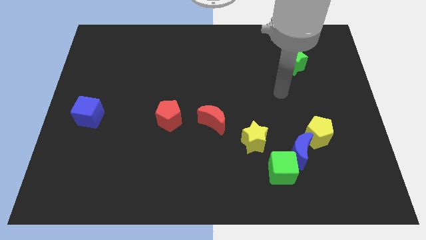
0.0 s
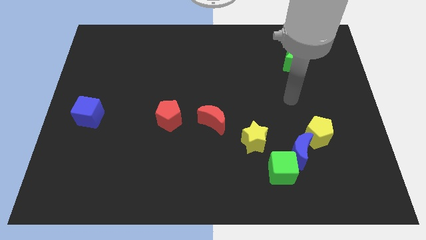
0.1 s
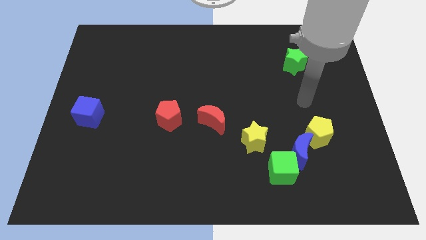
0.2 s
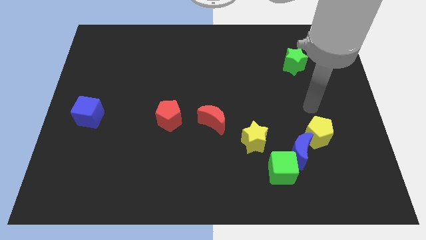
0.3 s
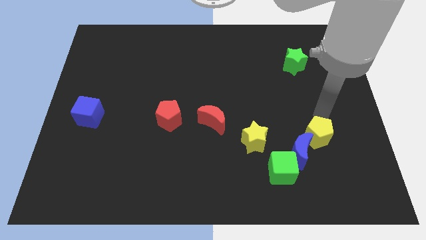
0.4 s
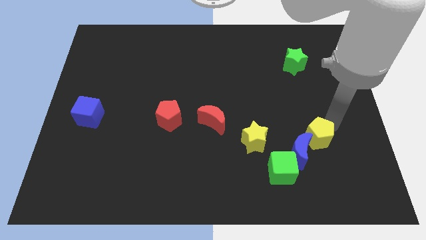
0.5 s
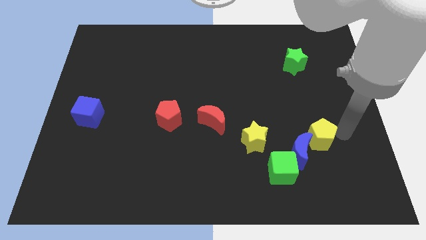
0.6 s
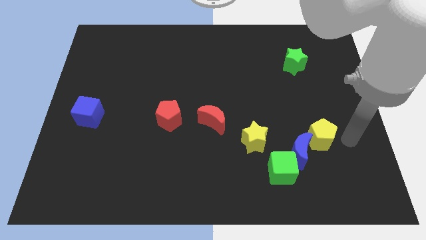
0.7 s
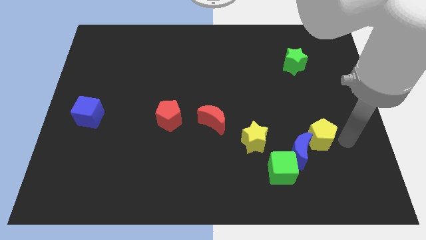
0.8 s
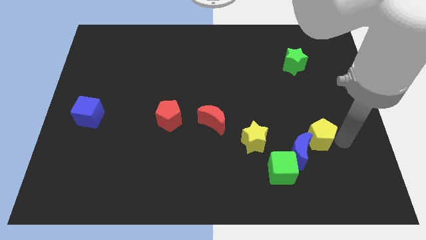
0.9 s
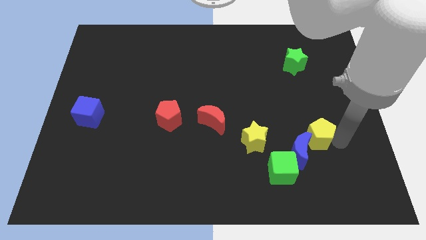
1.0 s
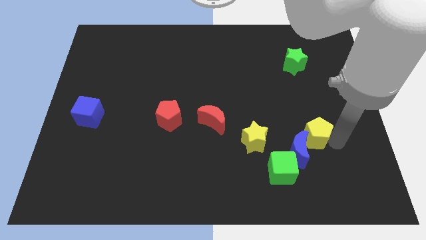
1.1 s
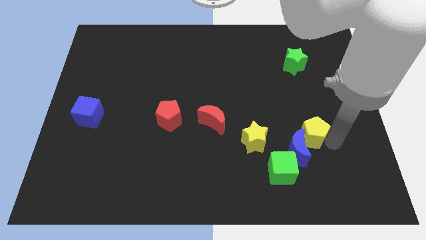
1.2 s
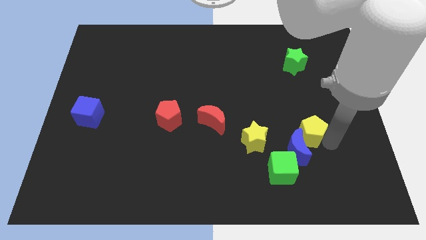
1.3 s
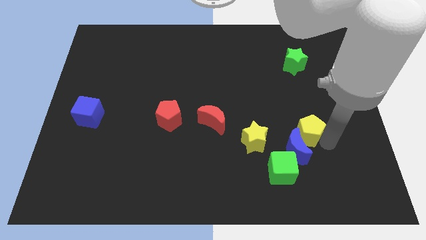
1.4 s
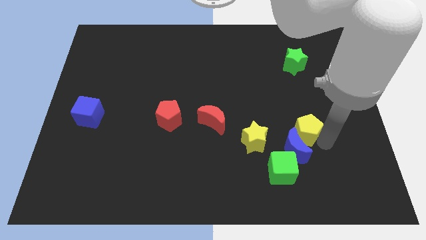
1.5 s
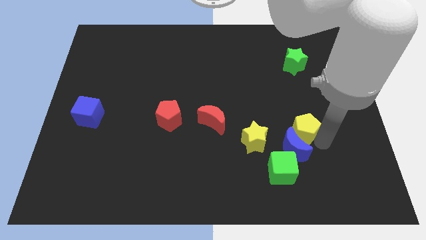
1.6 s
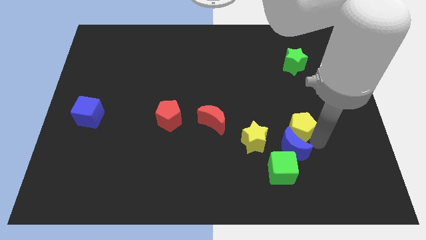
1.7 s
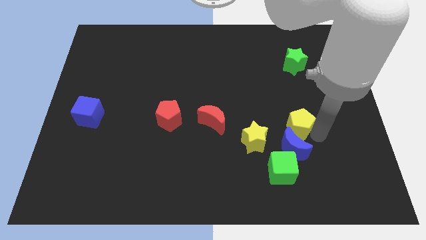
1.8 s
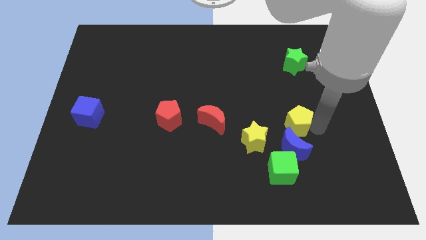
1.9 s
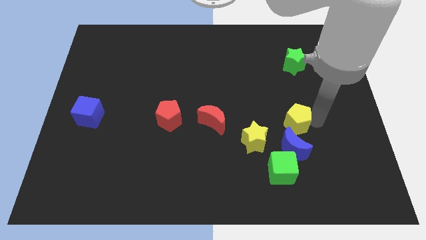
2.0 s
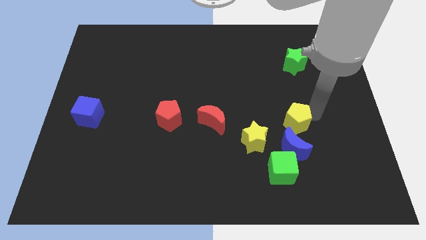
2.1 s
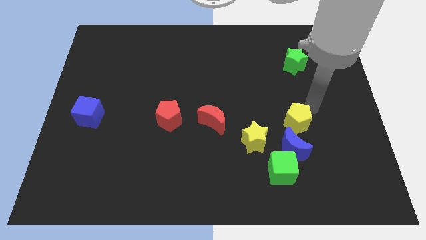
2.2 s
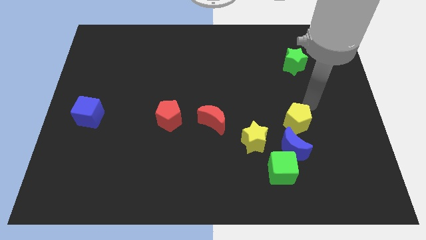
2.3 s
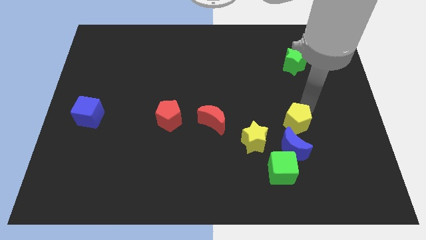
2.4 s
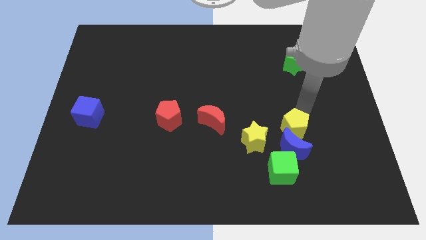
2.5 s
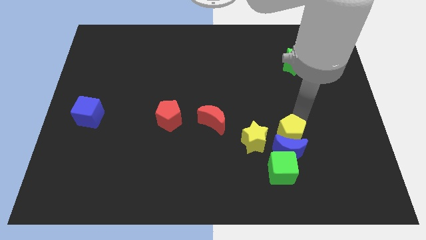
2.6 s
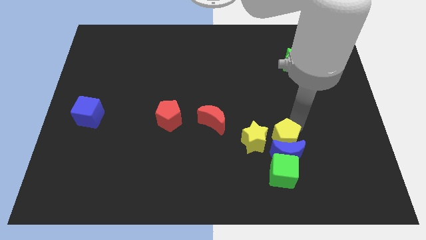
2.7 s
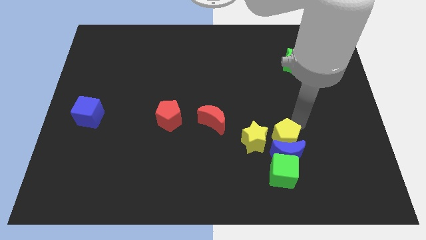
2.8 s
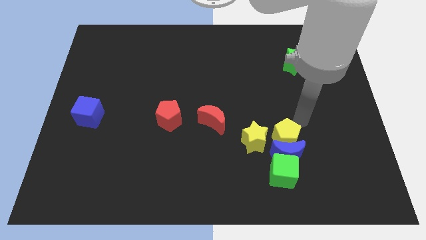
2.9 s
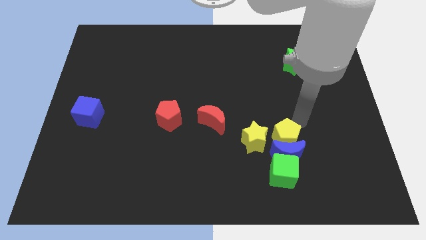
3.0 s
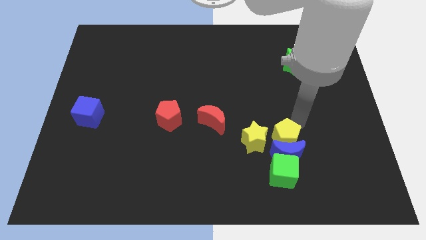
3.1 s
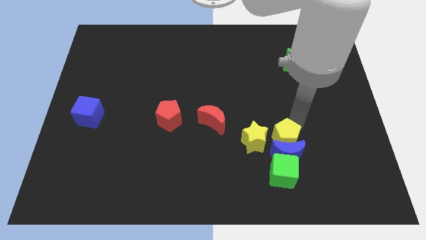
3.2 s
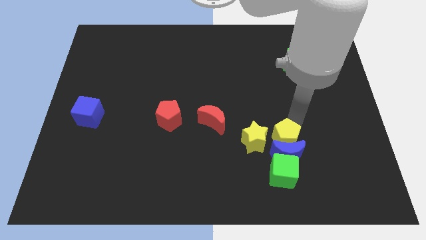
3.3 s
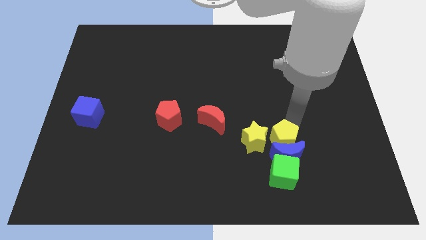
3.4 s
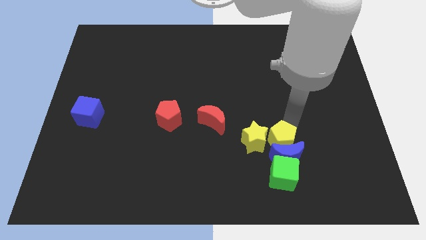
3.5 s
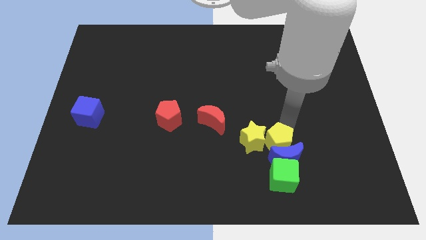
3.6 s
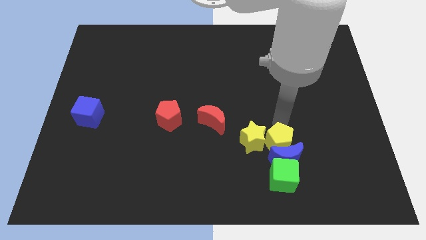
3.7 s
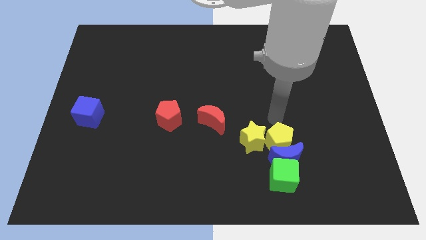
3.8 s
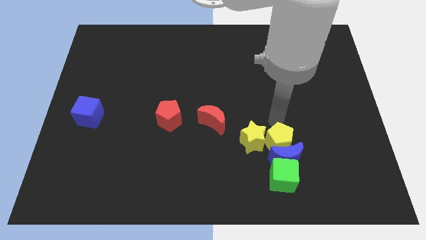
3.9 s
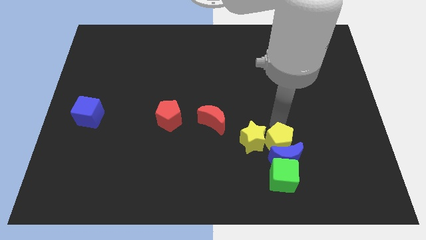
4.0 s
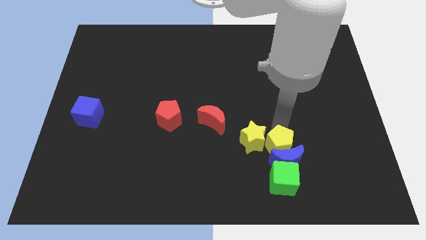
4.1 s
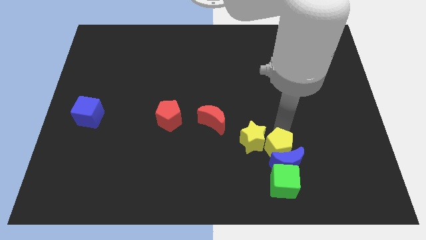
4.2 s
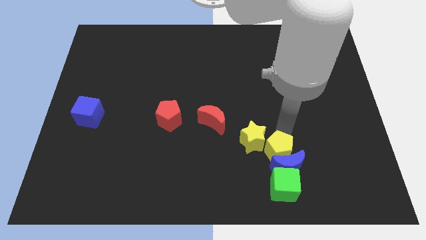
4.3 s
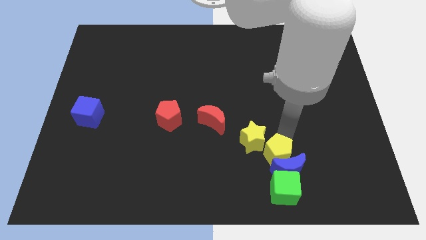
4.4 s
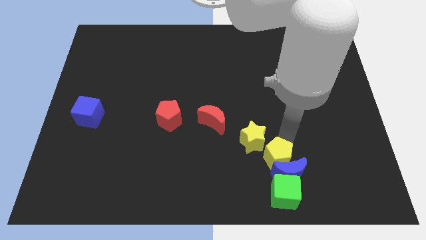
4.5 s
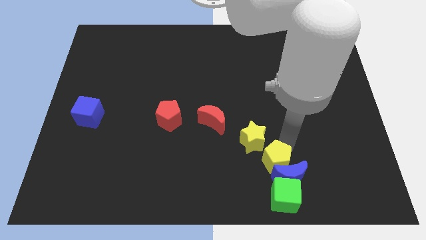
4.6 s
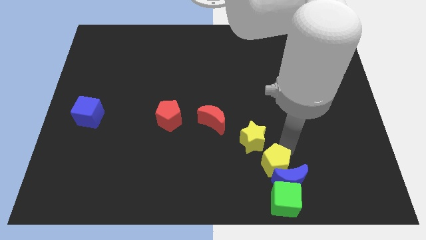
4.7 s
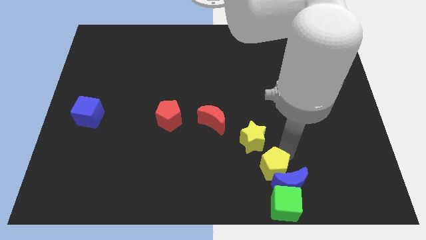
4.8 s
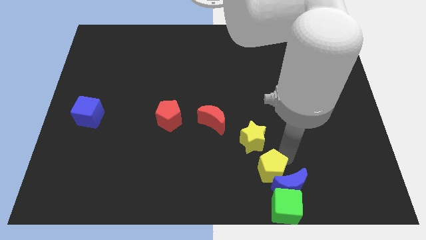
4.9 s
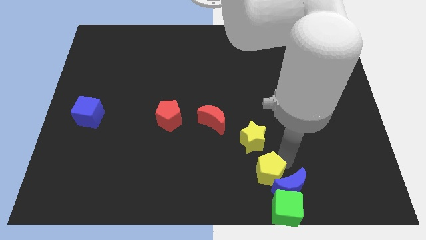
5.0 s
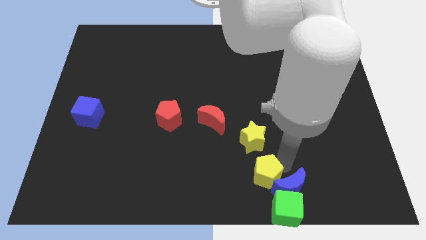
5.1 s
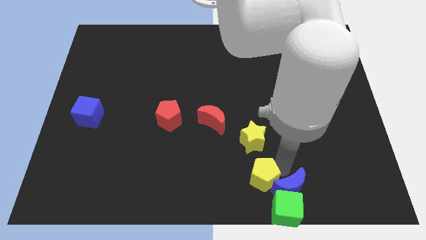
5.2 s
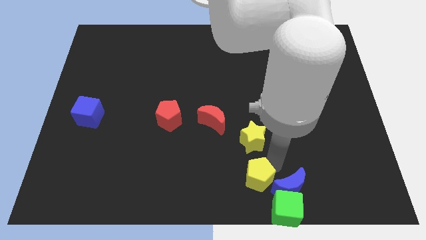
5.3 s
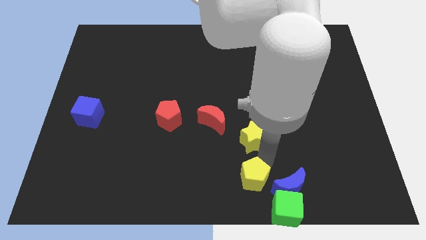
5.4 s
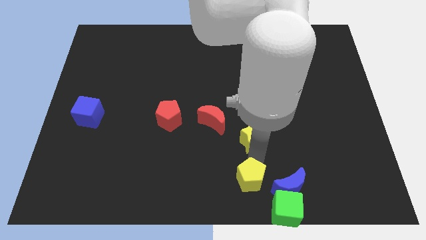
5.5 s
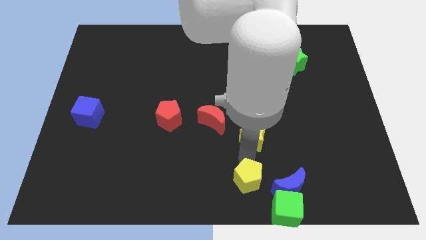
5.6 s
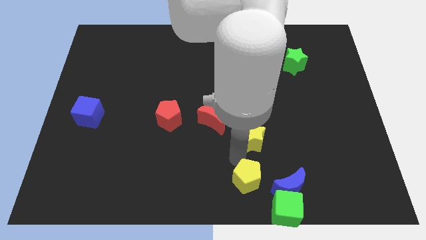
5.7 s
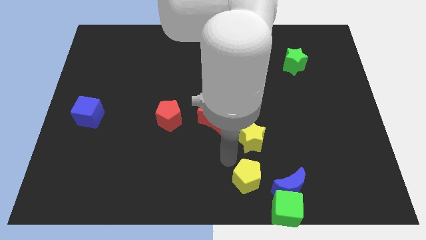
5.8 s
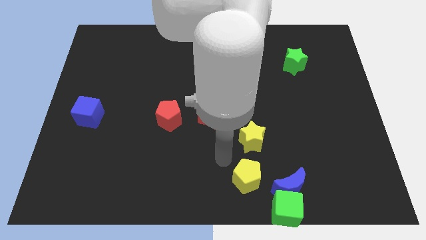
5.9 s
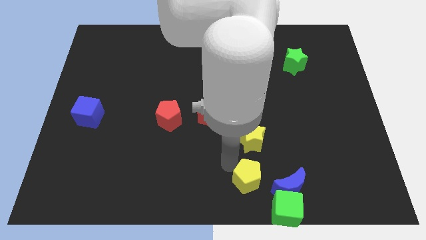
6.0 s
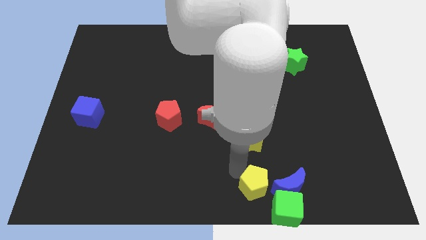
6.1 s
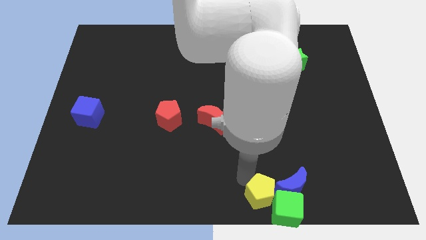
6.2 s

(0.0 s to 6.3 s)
slide the yellow pentagon towards the green cube
